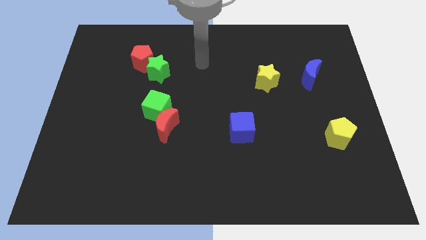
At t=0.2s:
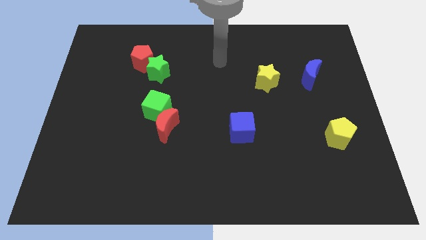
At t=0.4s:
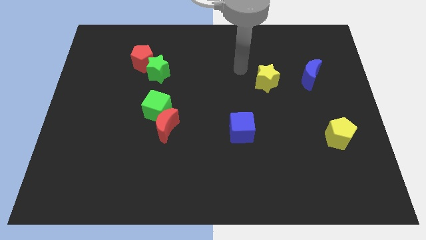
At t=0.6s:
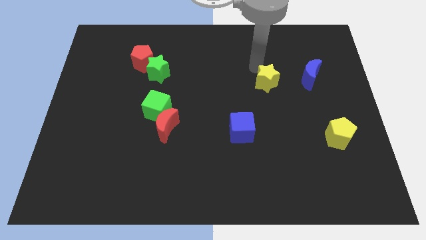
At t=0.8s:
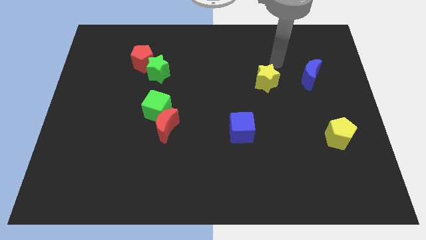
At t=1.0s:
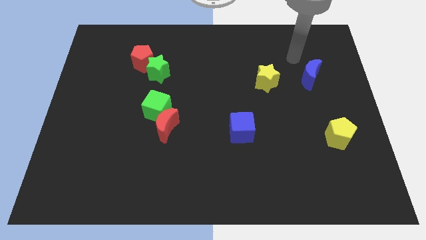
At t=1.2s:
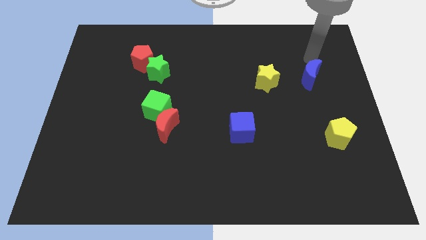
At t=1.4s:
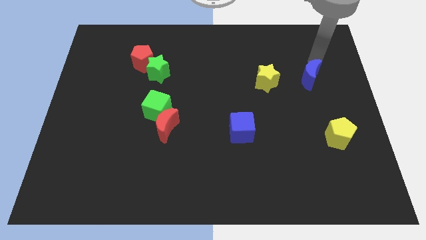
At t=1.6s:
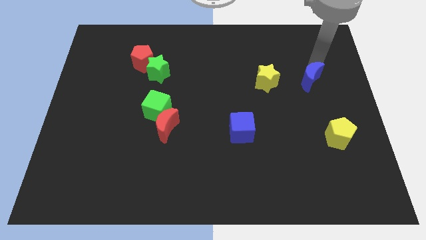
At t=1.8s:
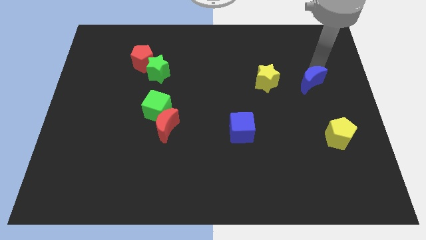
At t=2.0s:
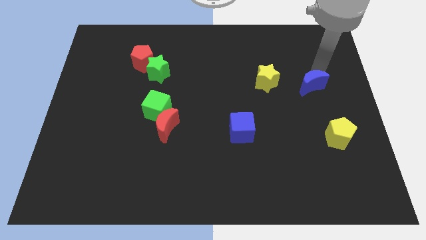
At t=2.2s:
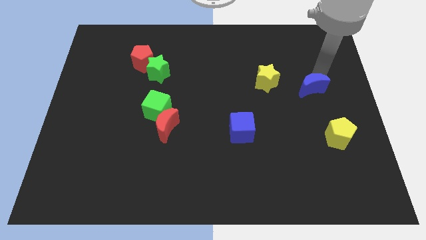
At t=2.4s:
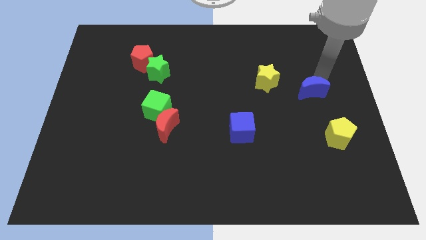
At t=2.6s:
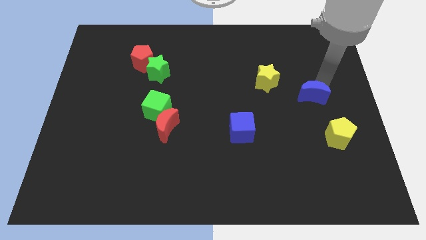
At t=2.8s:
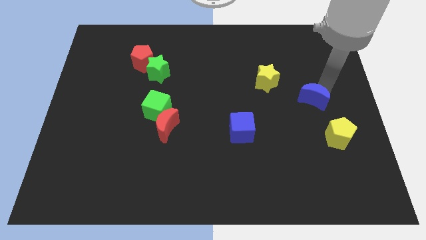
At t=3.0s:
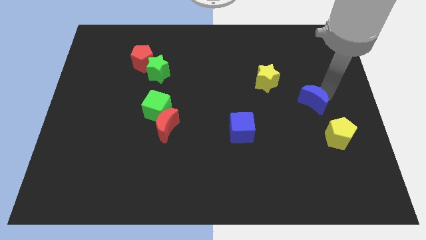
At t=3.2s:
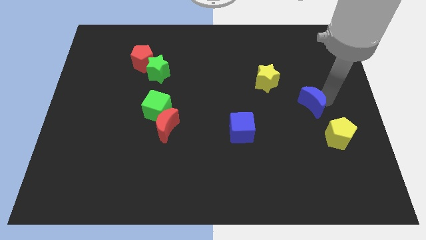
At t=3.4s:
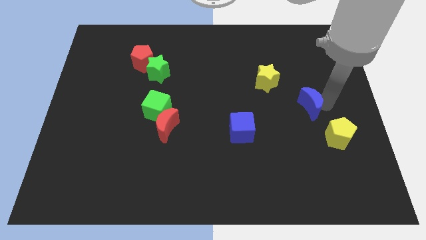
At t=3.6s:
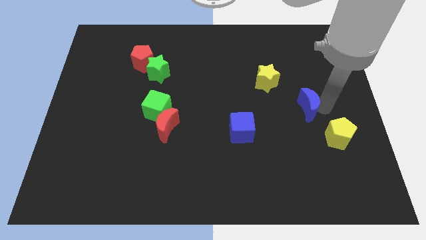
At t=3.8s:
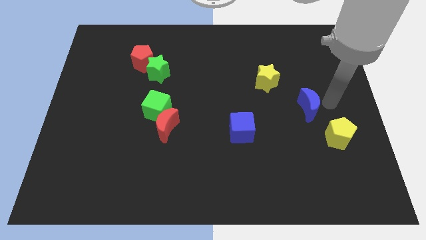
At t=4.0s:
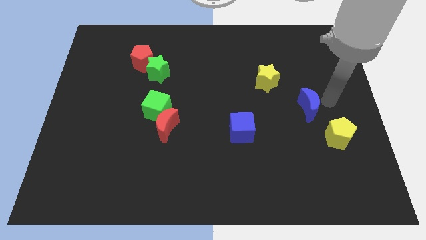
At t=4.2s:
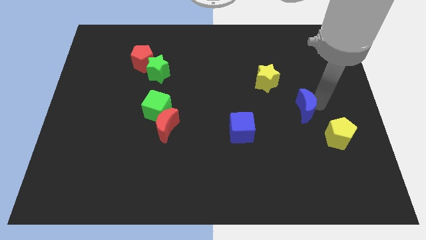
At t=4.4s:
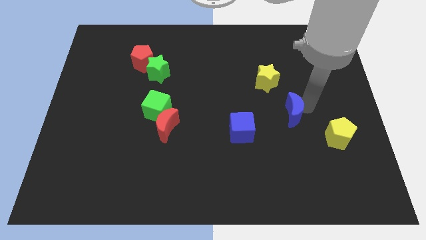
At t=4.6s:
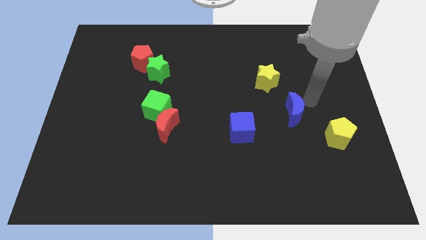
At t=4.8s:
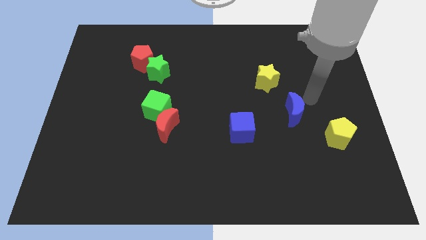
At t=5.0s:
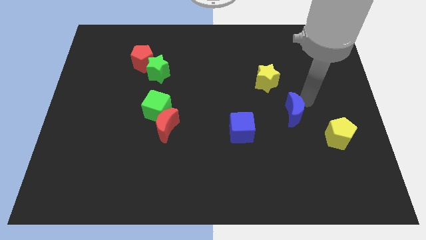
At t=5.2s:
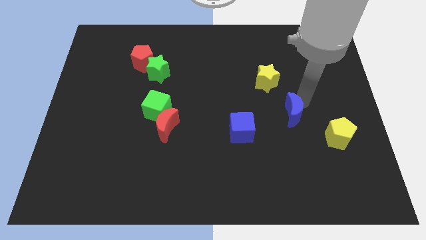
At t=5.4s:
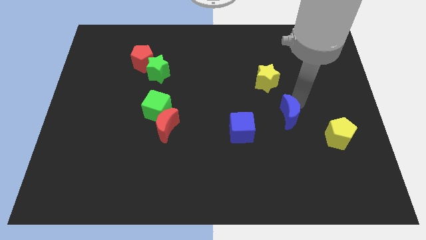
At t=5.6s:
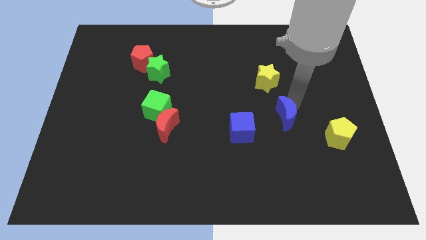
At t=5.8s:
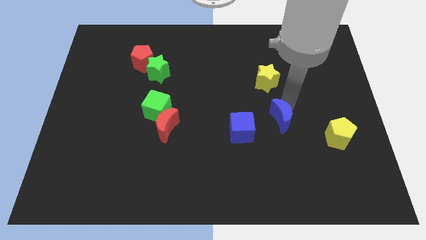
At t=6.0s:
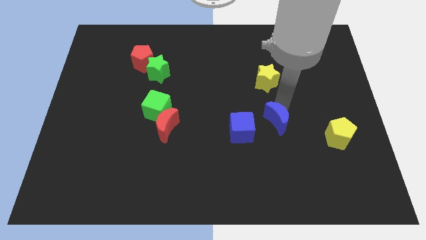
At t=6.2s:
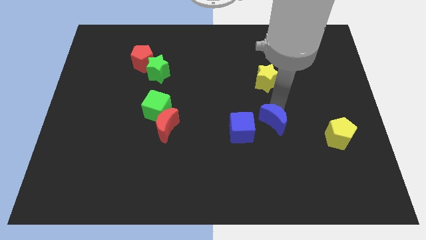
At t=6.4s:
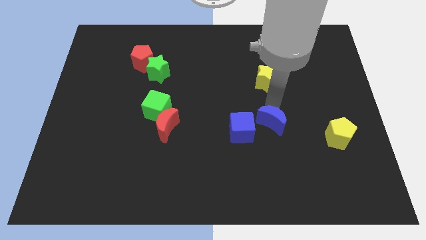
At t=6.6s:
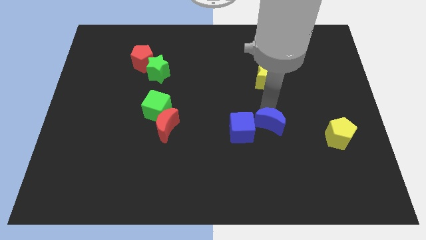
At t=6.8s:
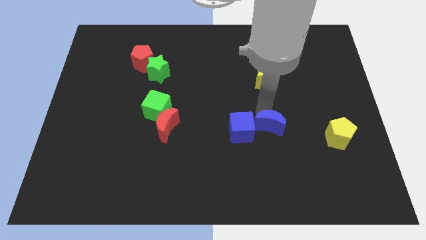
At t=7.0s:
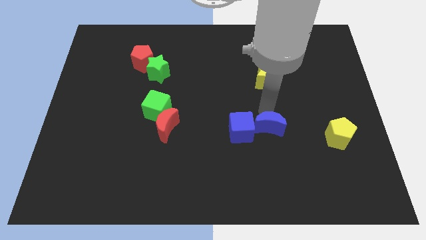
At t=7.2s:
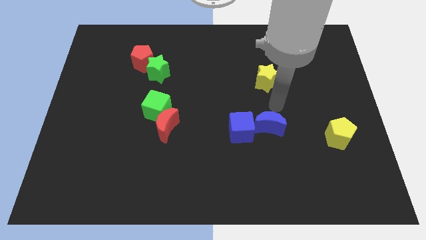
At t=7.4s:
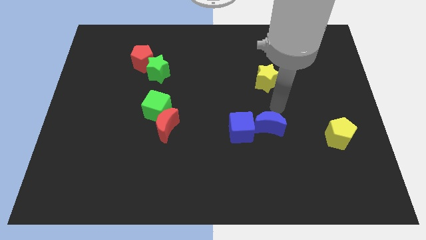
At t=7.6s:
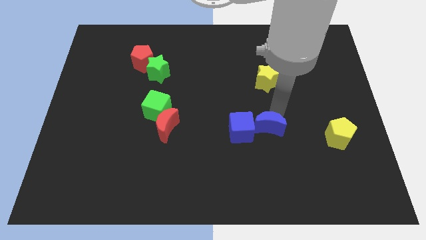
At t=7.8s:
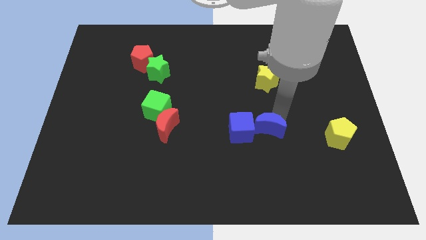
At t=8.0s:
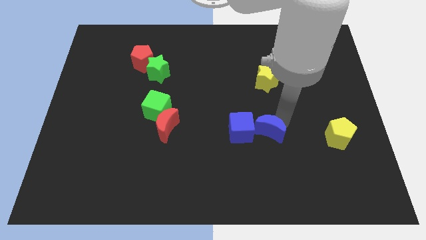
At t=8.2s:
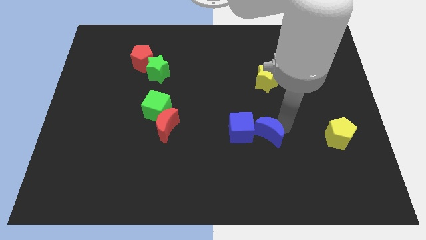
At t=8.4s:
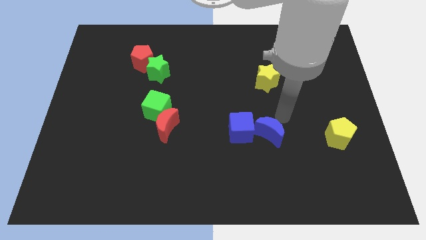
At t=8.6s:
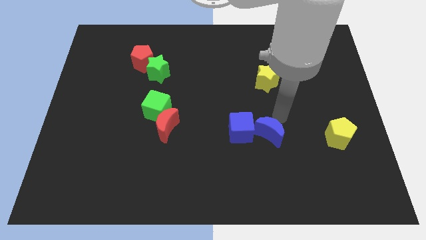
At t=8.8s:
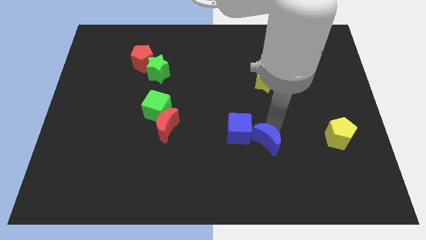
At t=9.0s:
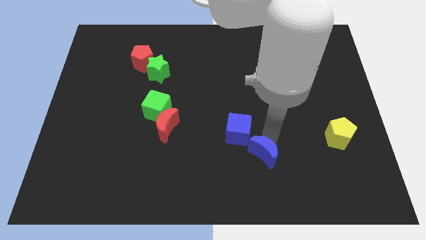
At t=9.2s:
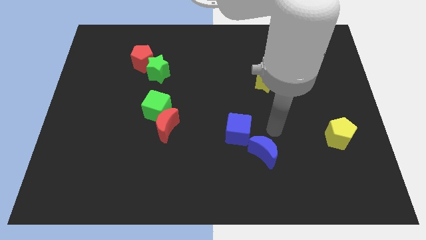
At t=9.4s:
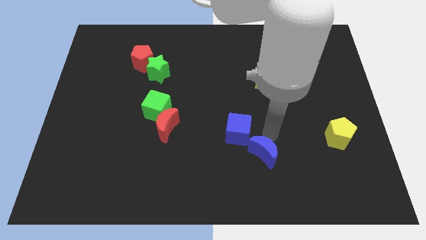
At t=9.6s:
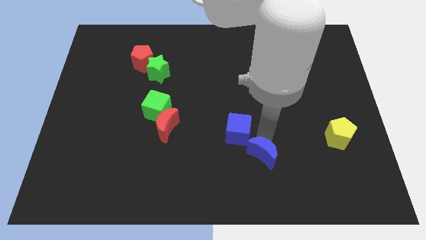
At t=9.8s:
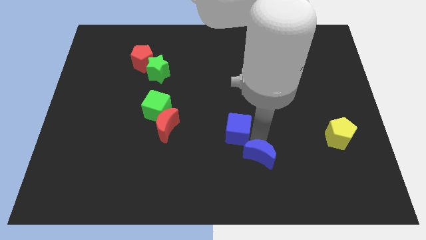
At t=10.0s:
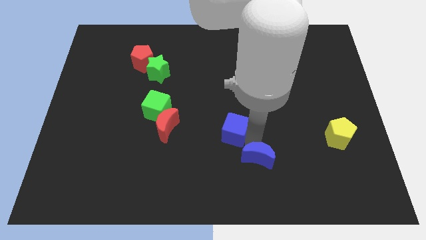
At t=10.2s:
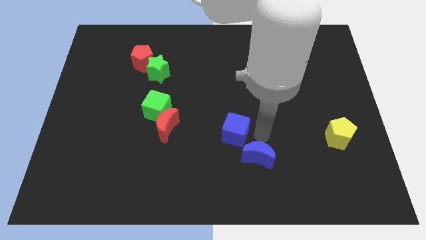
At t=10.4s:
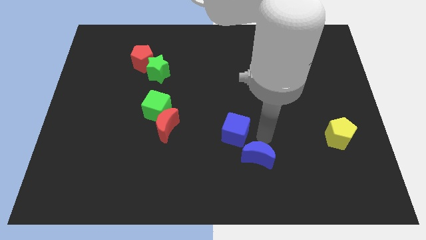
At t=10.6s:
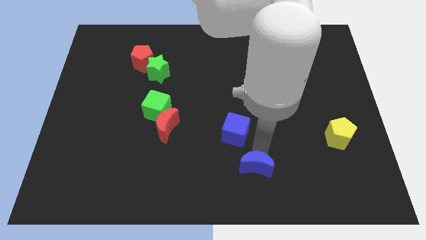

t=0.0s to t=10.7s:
push the blue moon to the bottom
